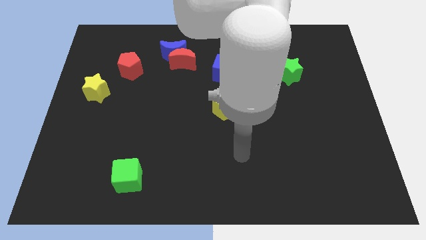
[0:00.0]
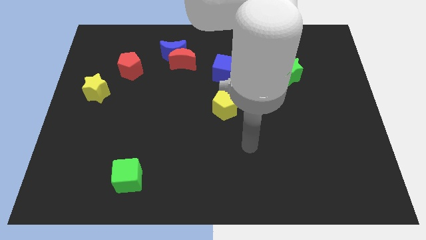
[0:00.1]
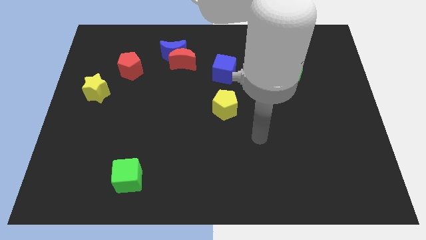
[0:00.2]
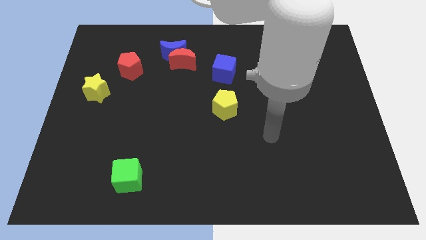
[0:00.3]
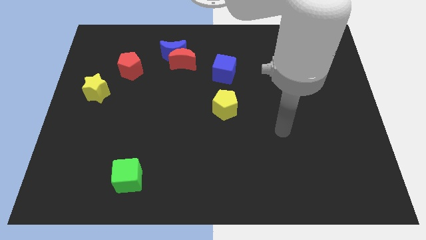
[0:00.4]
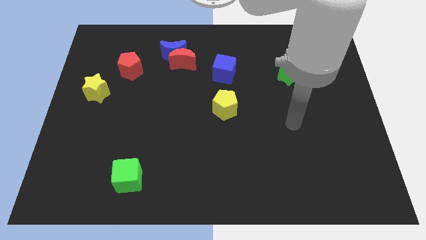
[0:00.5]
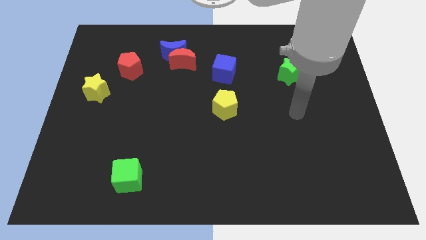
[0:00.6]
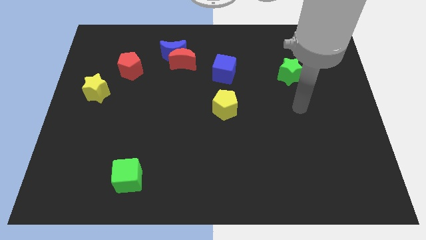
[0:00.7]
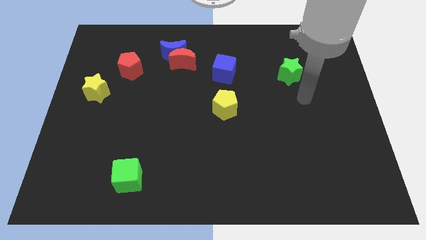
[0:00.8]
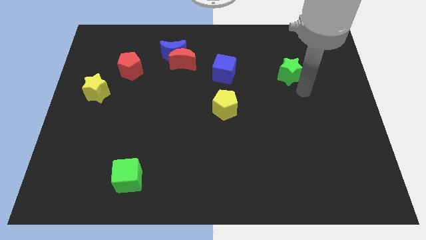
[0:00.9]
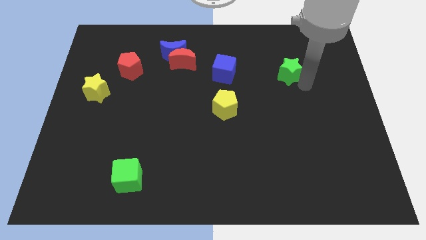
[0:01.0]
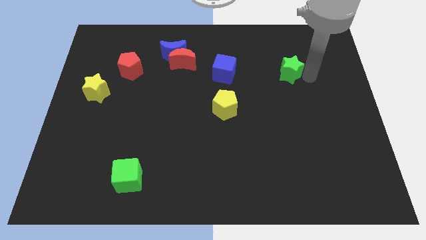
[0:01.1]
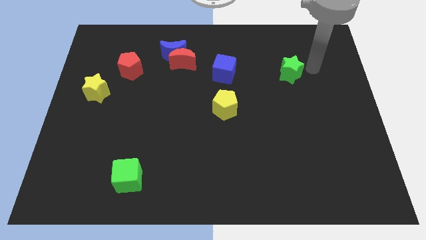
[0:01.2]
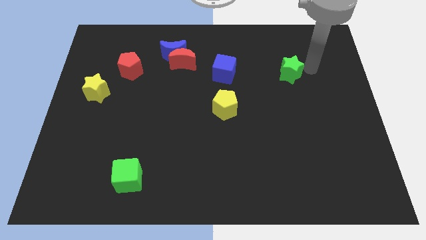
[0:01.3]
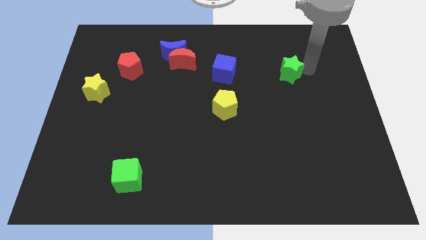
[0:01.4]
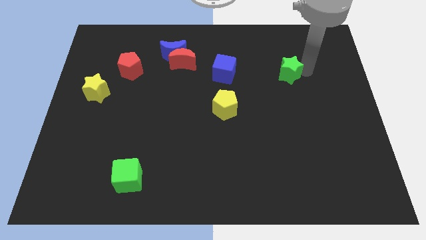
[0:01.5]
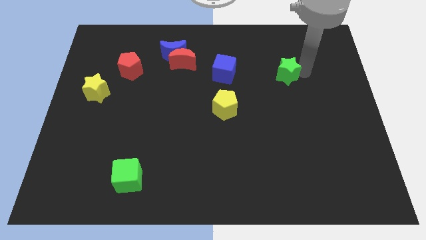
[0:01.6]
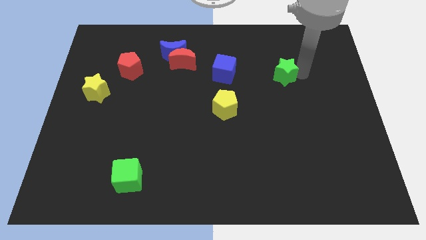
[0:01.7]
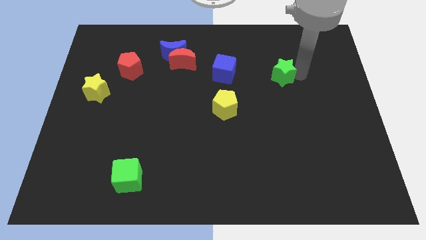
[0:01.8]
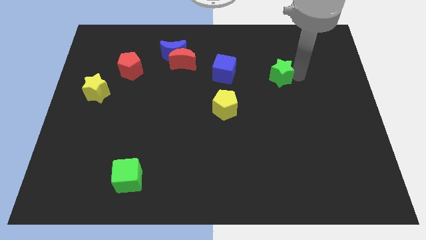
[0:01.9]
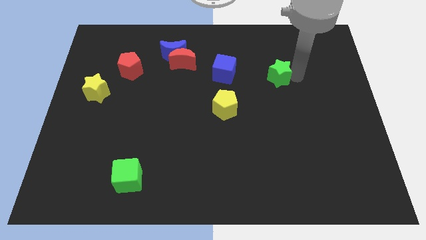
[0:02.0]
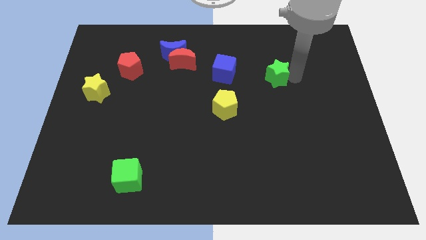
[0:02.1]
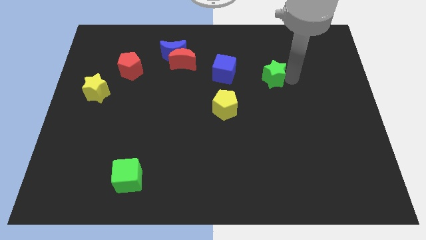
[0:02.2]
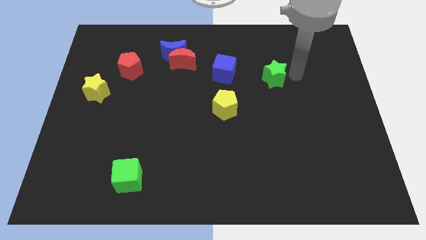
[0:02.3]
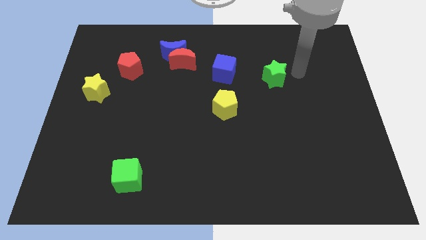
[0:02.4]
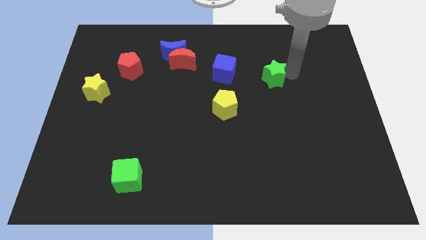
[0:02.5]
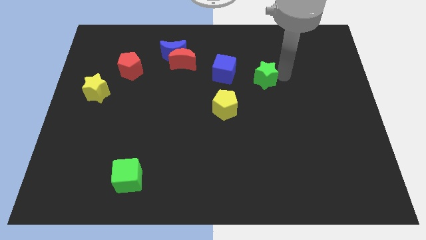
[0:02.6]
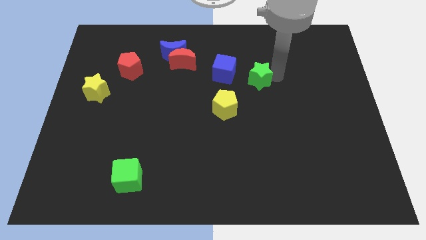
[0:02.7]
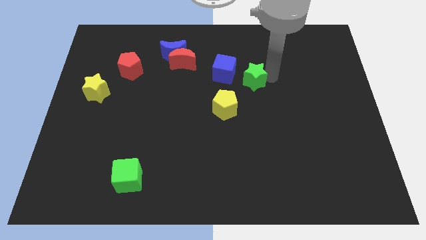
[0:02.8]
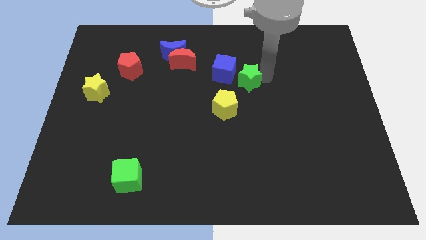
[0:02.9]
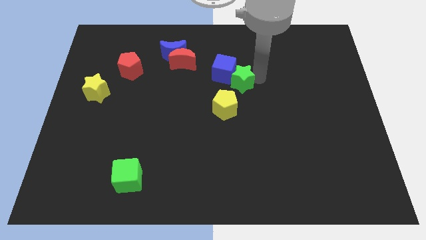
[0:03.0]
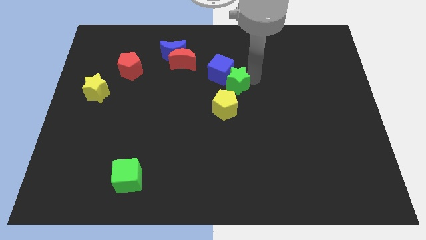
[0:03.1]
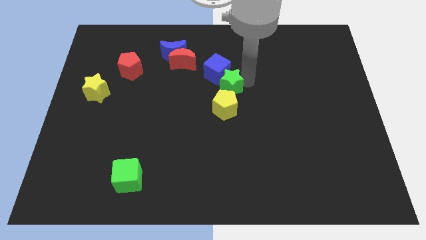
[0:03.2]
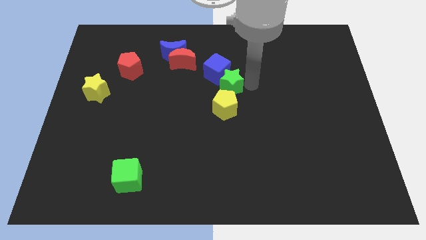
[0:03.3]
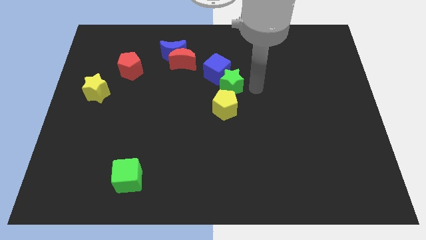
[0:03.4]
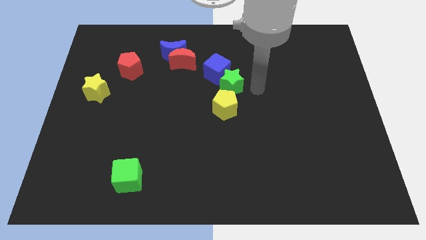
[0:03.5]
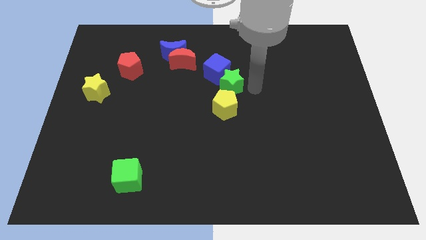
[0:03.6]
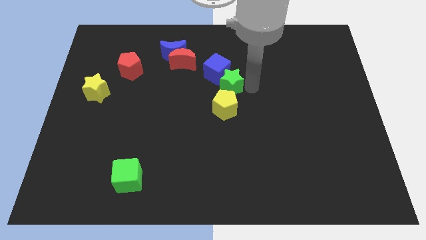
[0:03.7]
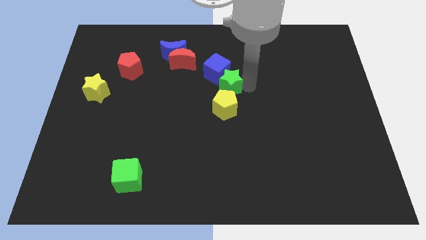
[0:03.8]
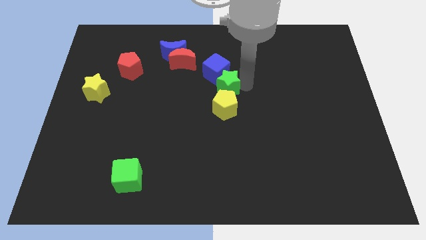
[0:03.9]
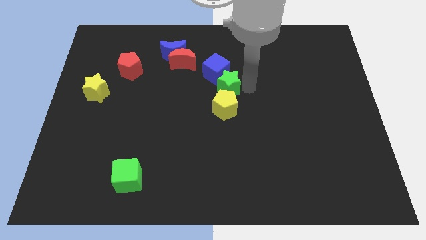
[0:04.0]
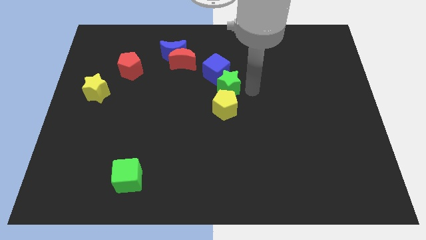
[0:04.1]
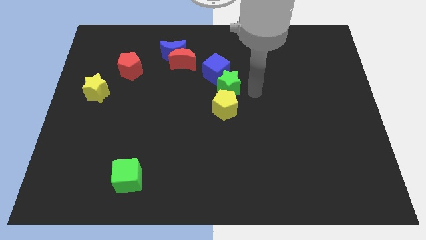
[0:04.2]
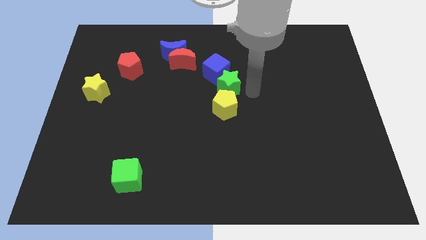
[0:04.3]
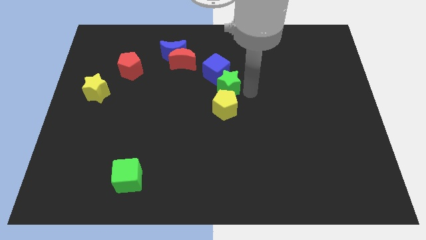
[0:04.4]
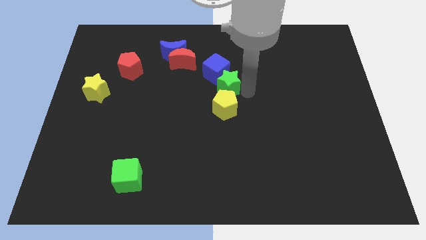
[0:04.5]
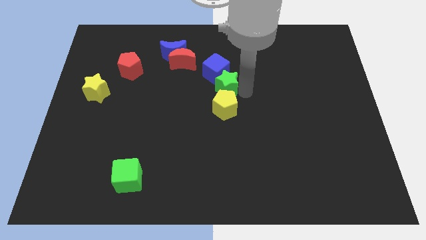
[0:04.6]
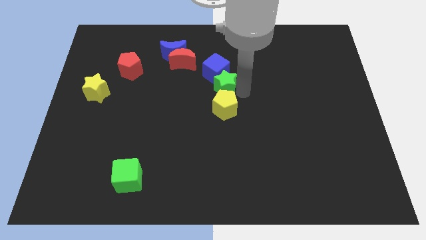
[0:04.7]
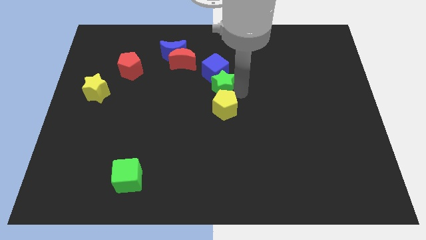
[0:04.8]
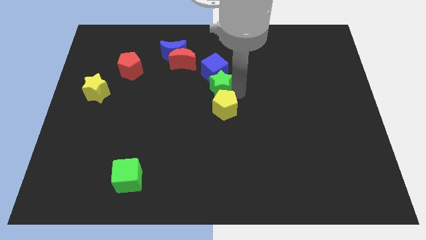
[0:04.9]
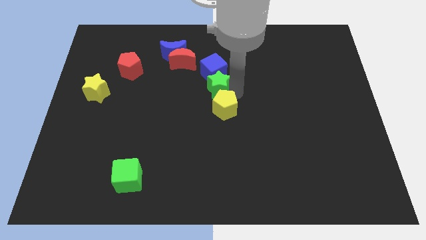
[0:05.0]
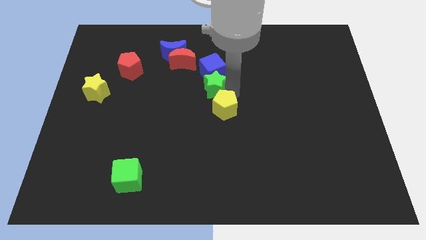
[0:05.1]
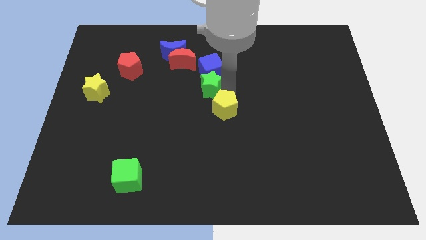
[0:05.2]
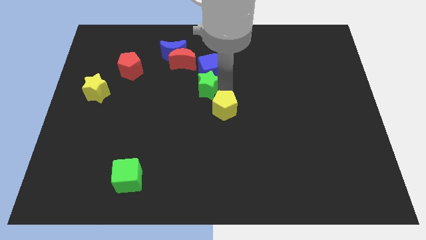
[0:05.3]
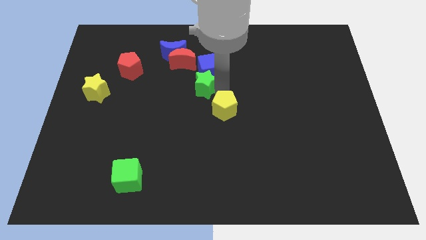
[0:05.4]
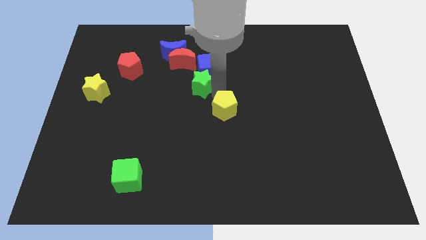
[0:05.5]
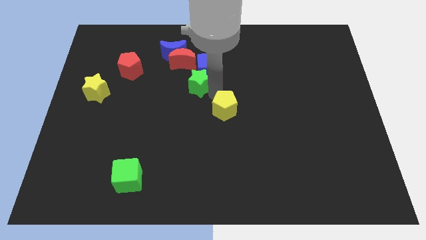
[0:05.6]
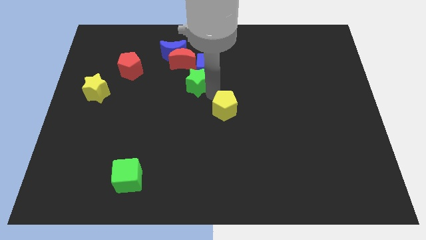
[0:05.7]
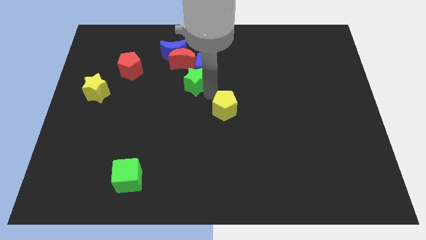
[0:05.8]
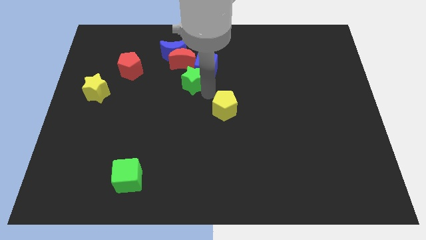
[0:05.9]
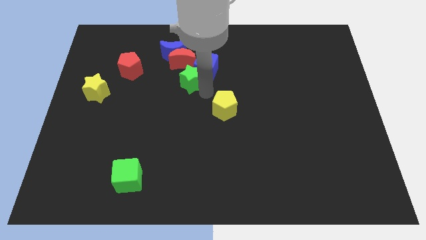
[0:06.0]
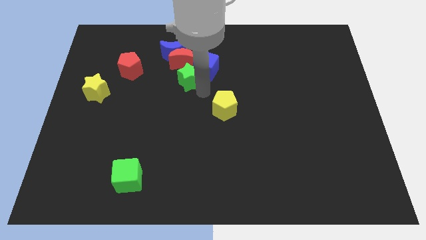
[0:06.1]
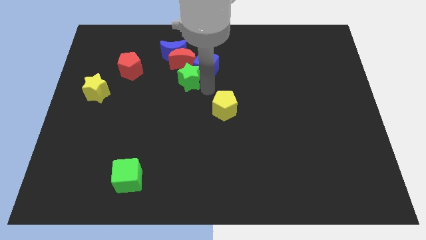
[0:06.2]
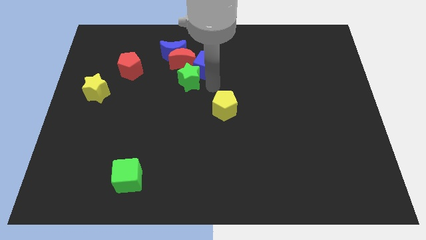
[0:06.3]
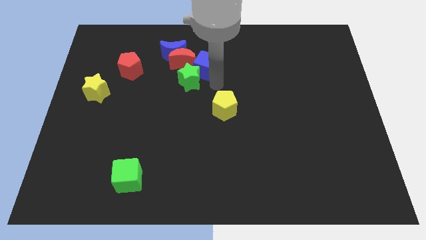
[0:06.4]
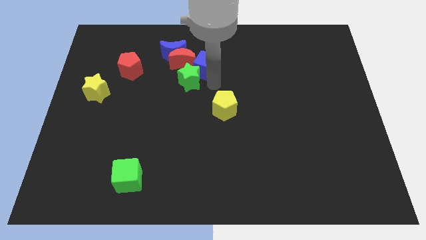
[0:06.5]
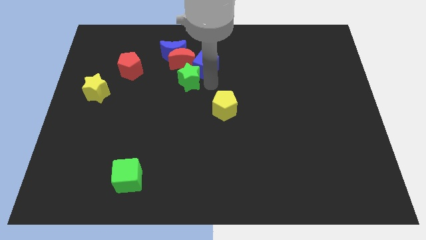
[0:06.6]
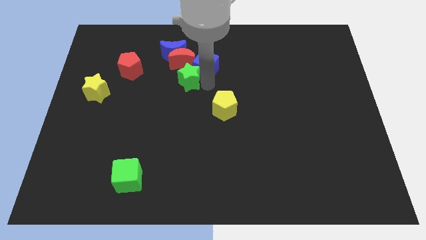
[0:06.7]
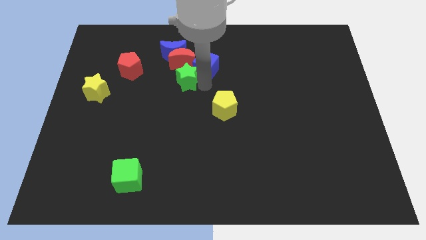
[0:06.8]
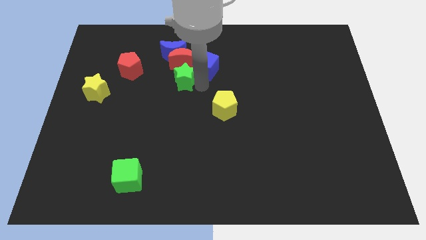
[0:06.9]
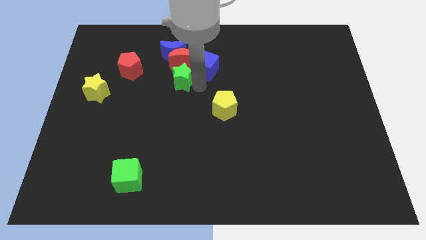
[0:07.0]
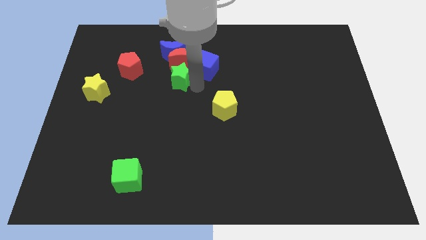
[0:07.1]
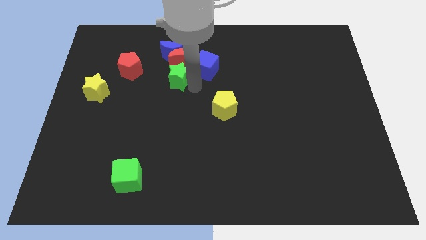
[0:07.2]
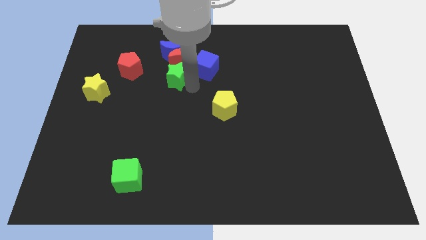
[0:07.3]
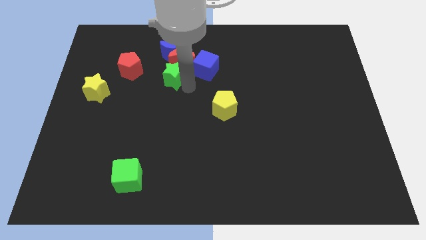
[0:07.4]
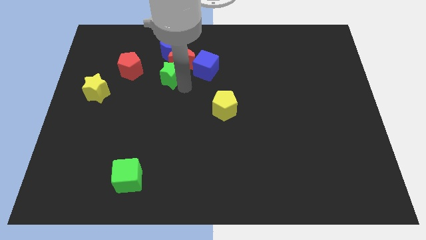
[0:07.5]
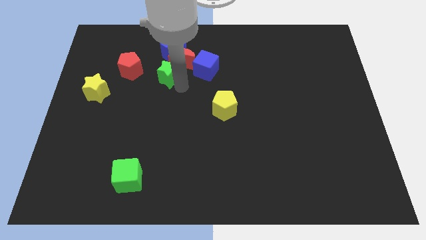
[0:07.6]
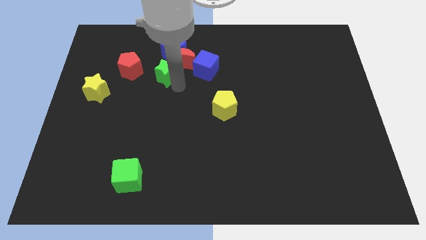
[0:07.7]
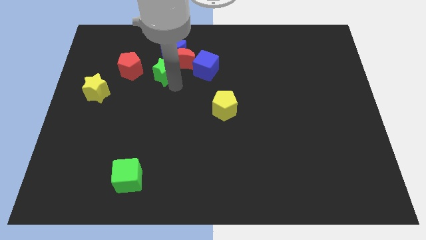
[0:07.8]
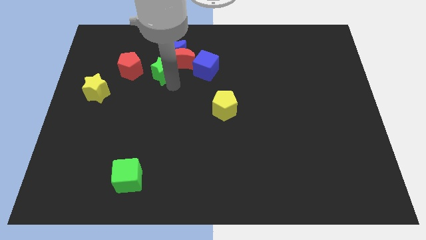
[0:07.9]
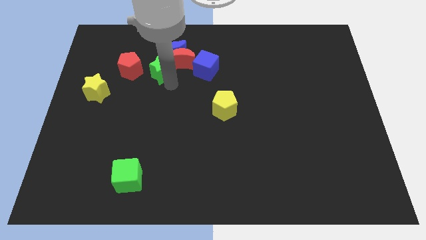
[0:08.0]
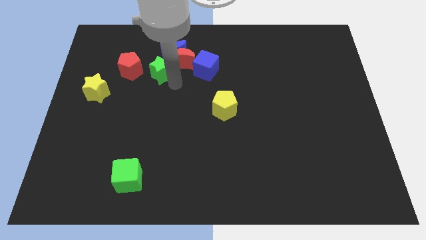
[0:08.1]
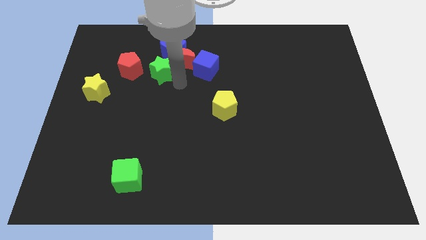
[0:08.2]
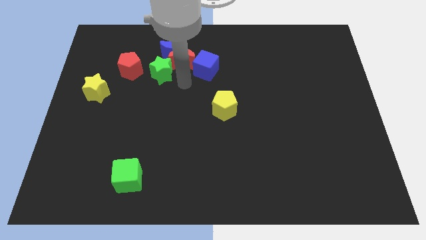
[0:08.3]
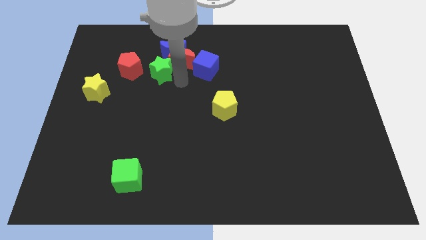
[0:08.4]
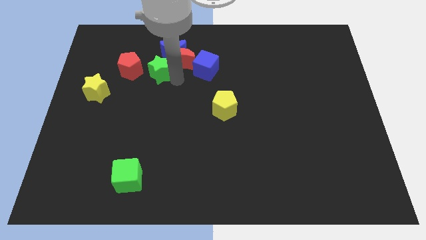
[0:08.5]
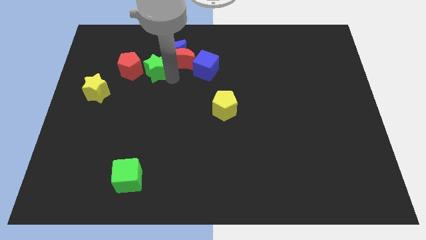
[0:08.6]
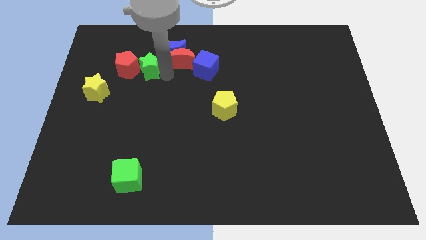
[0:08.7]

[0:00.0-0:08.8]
slide the green star next to the red pentagon
